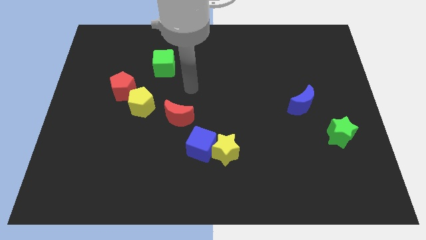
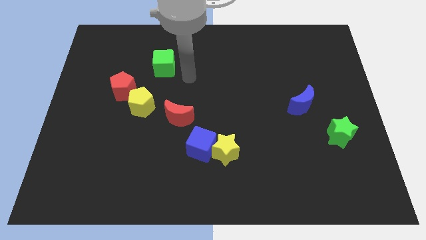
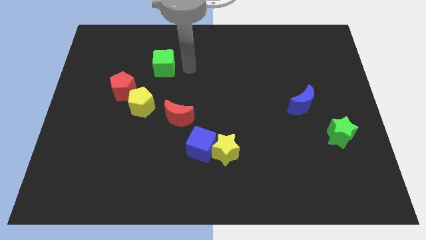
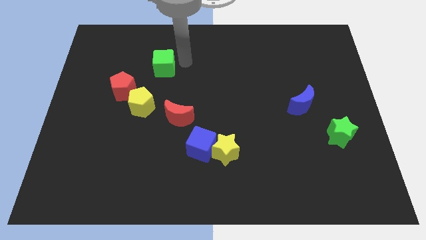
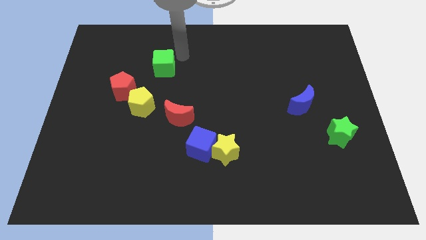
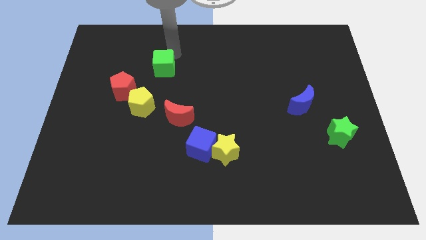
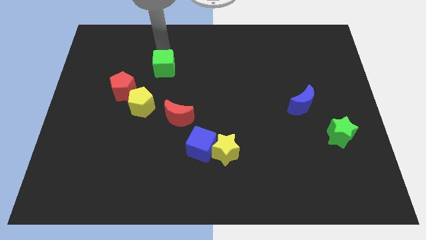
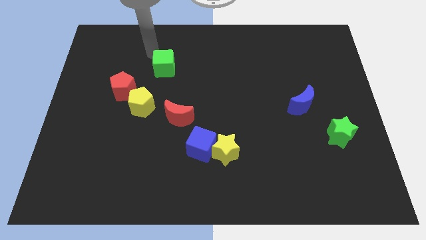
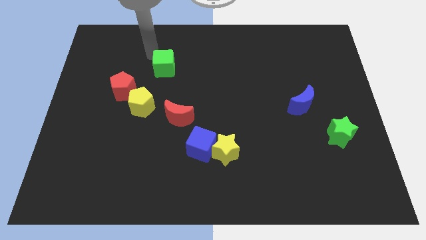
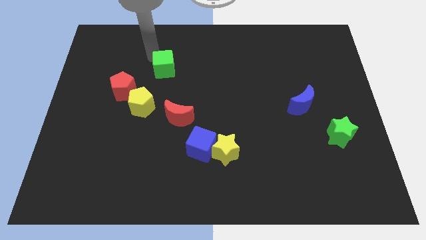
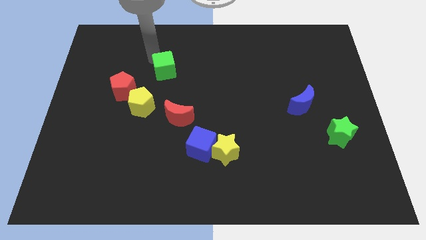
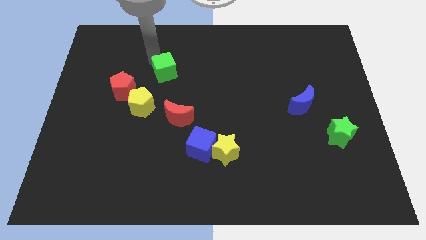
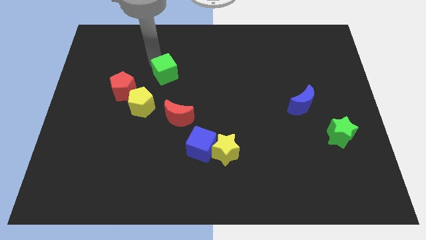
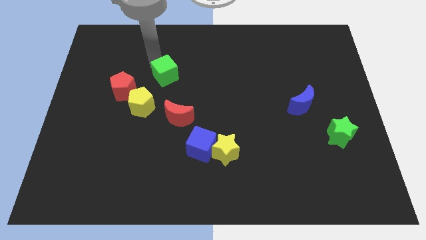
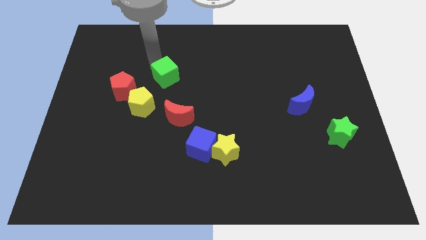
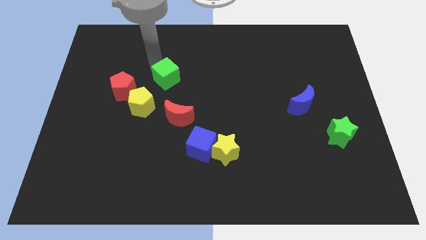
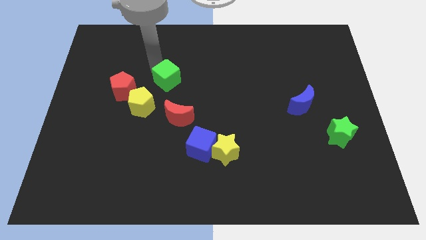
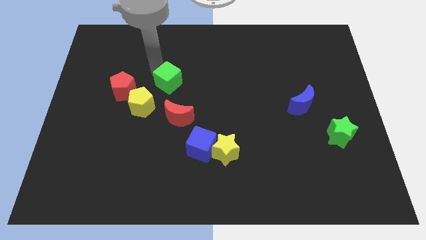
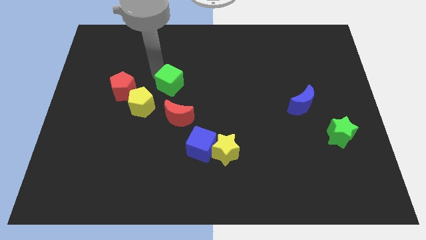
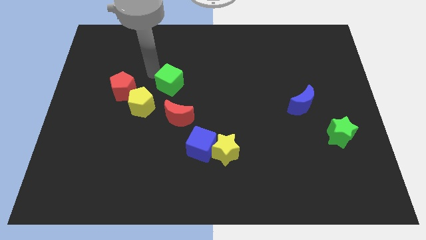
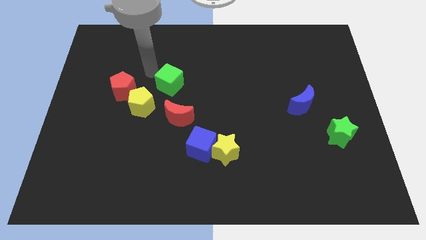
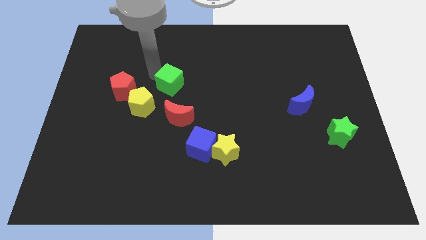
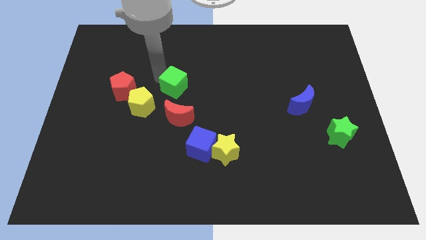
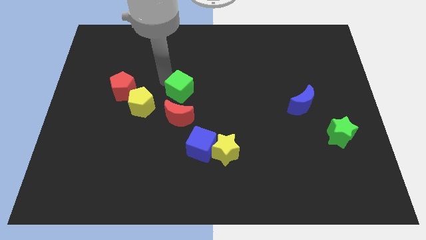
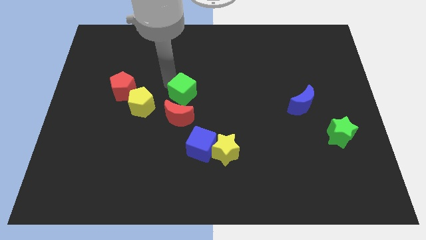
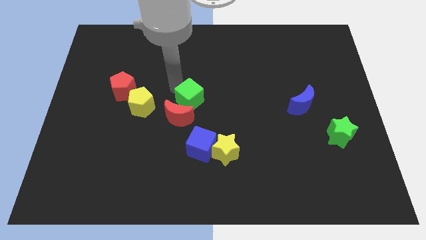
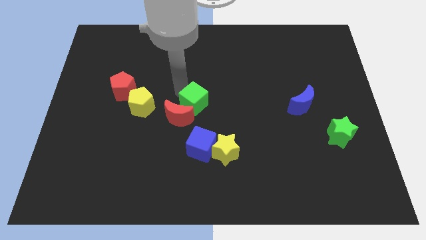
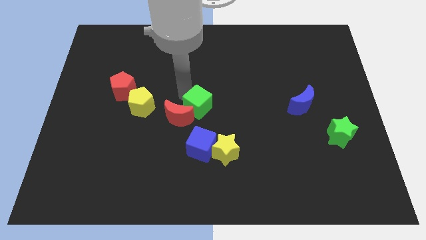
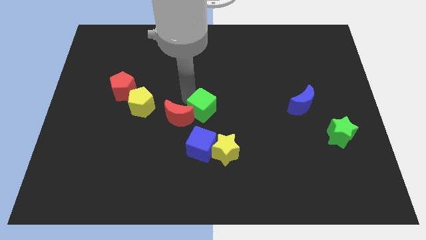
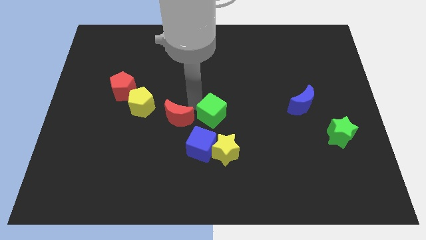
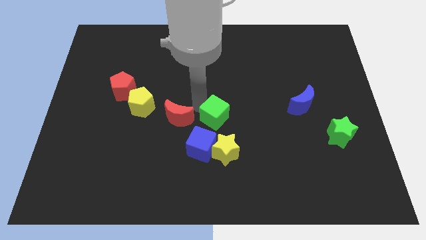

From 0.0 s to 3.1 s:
move the green cube downwards and then to the right

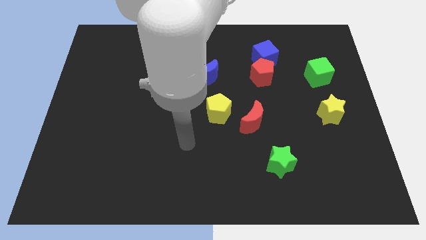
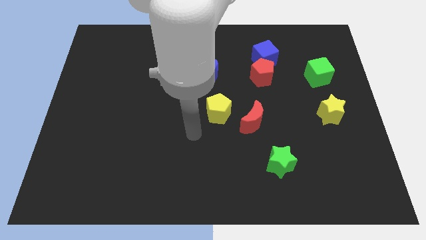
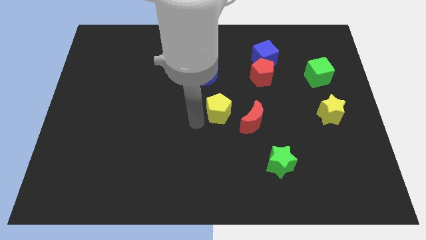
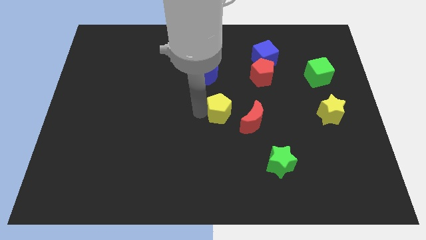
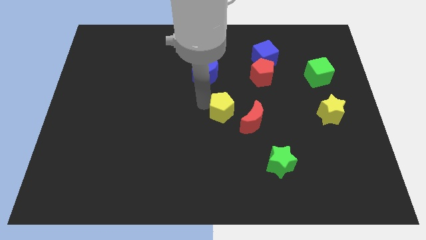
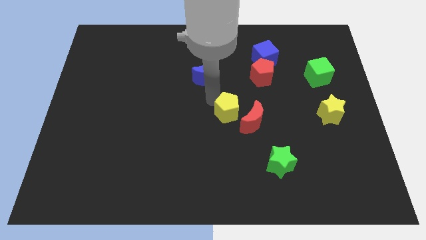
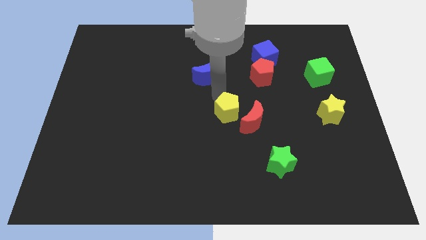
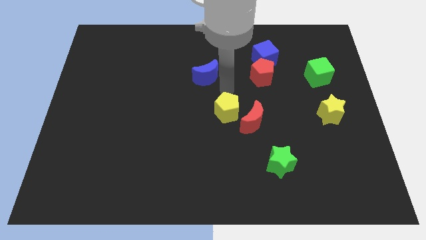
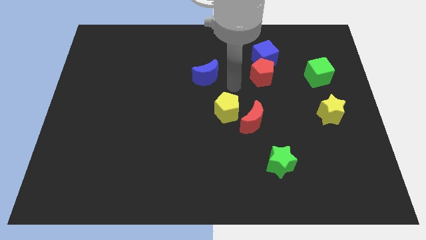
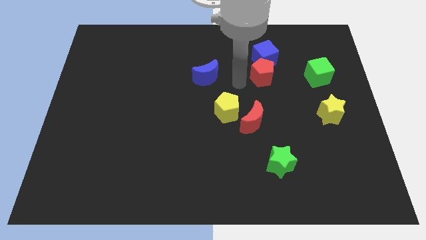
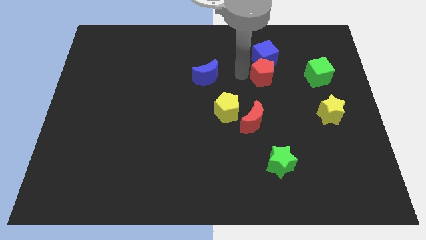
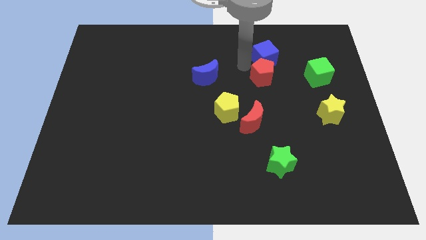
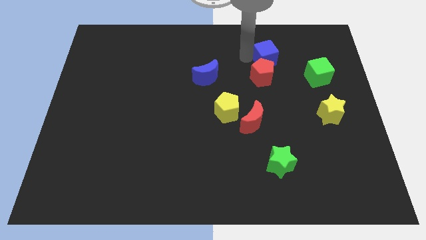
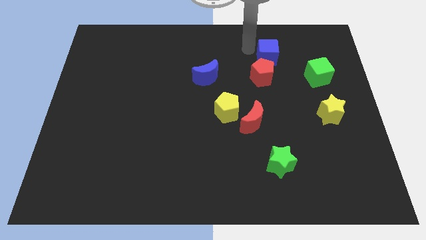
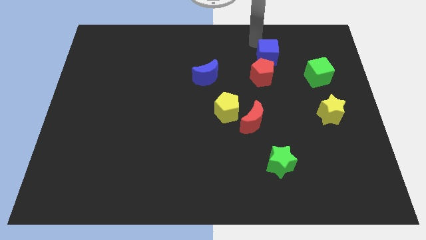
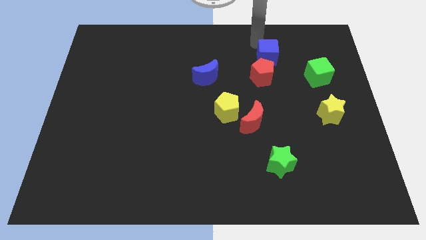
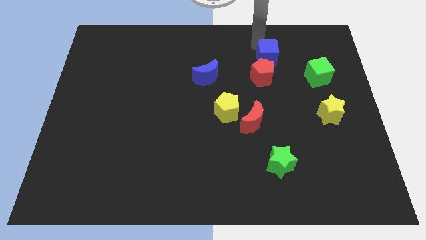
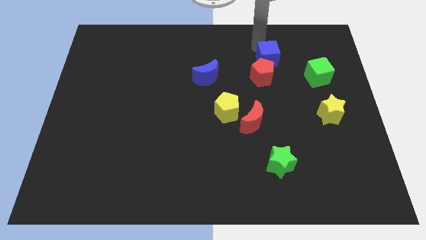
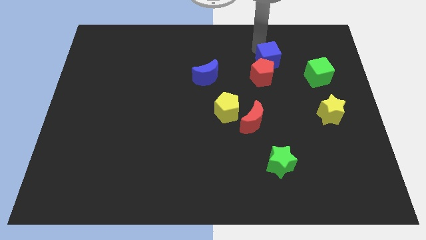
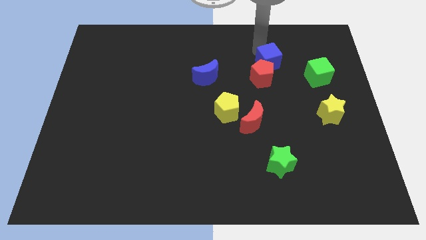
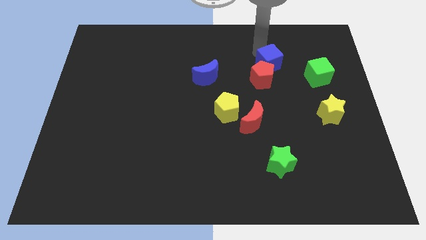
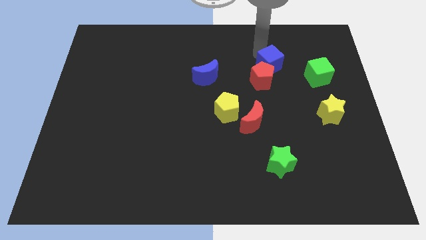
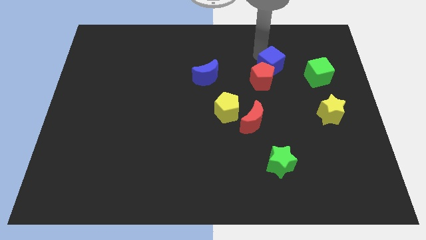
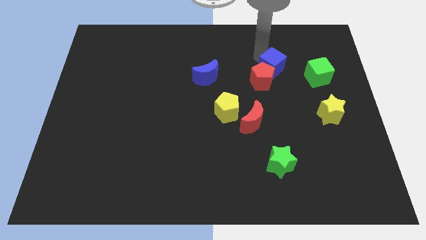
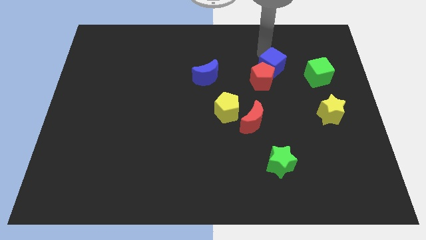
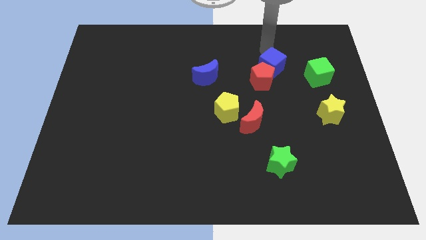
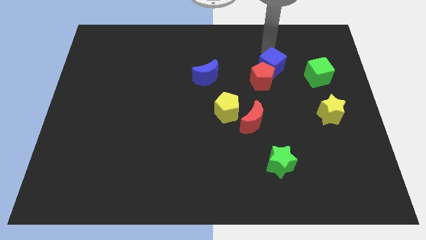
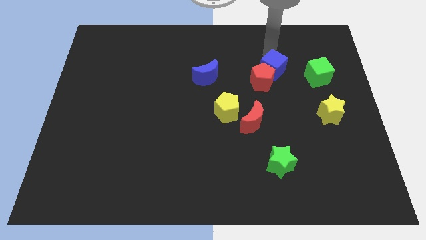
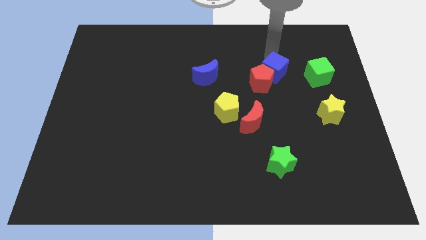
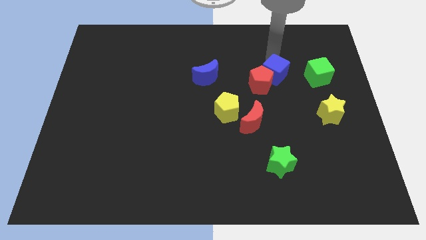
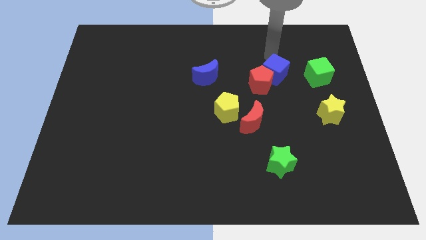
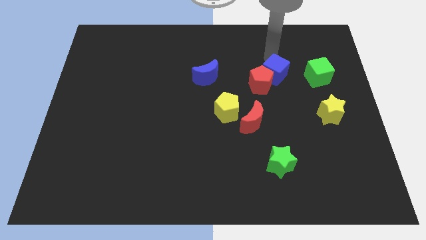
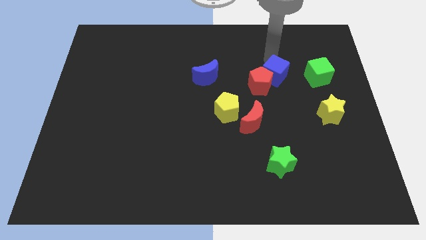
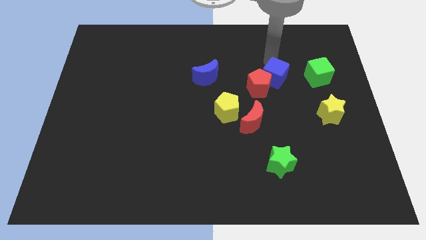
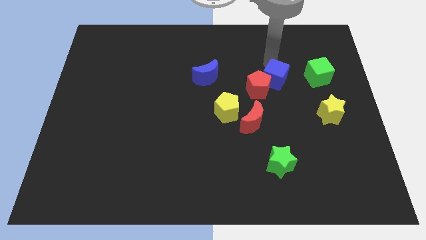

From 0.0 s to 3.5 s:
slightly move the blue cube down

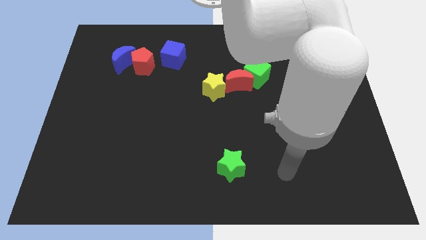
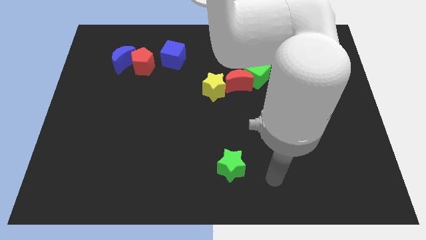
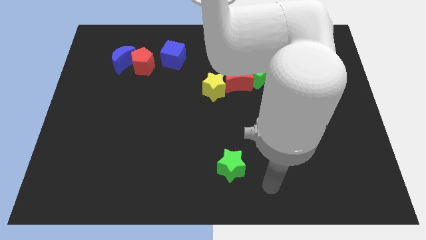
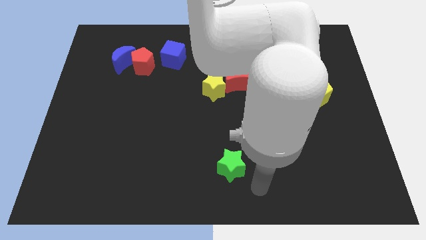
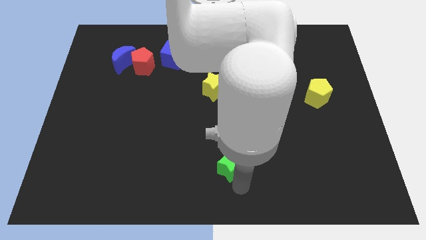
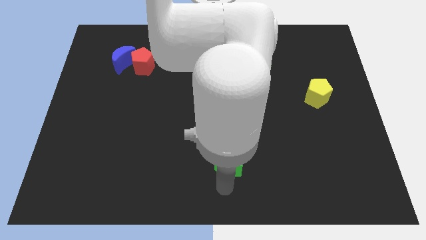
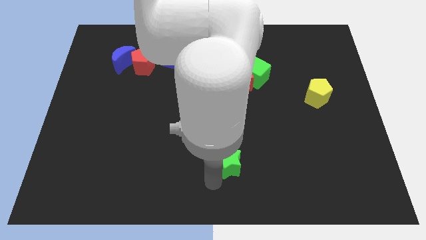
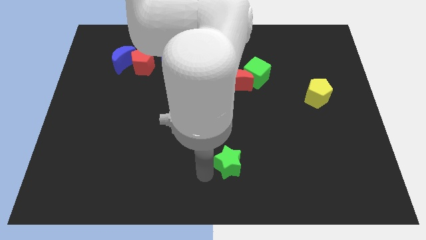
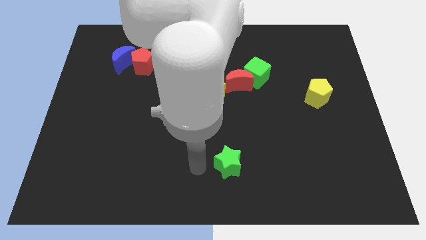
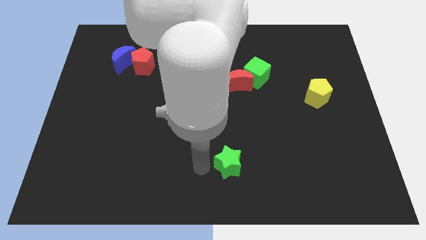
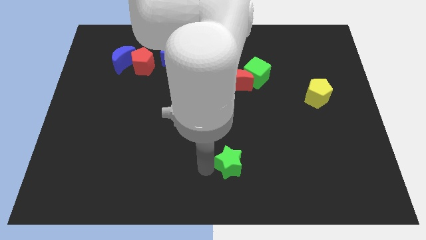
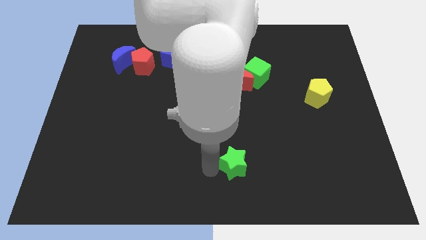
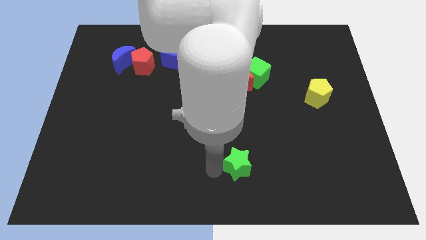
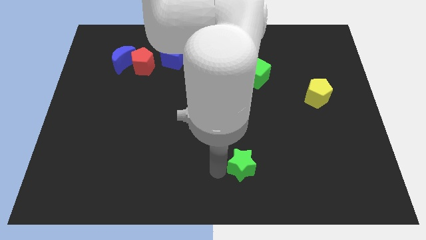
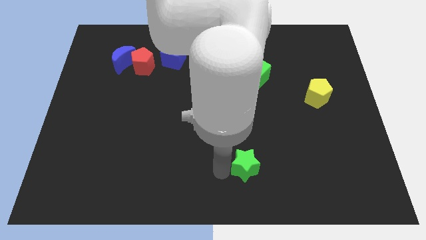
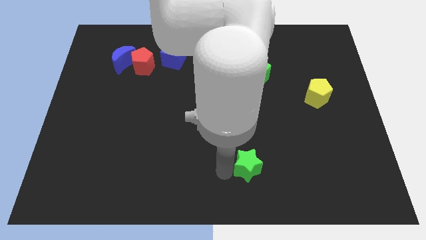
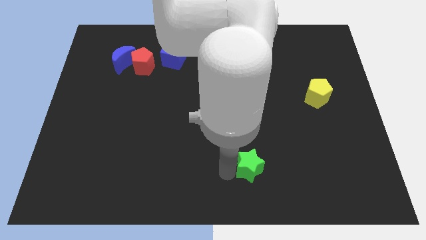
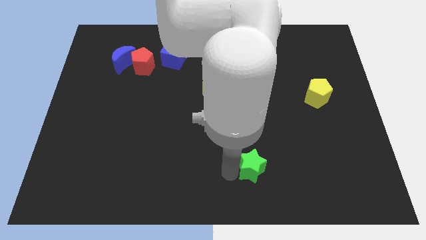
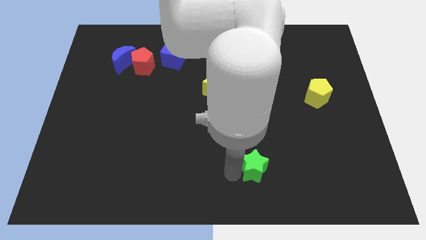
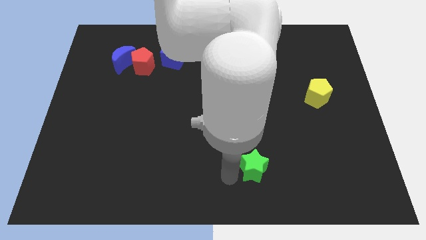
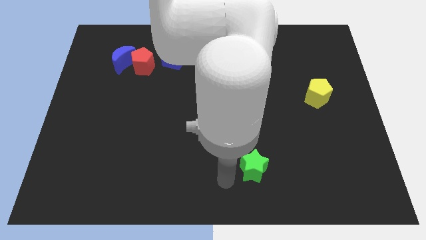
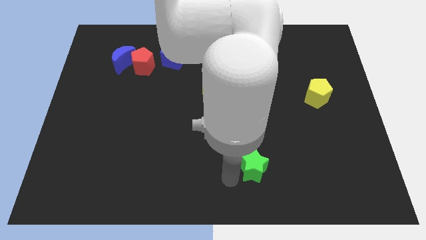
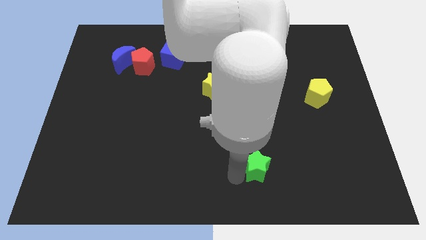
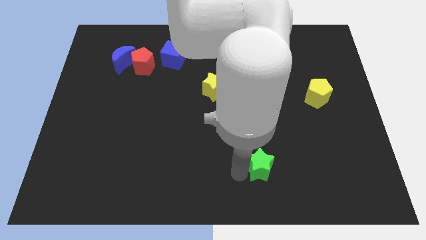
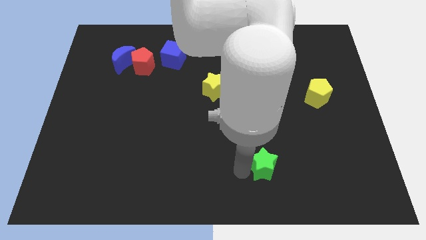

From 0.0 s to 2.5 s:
slightly move the green star right
